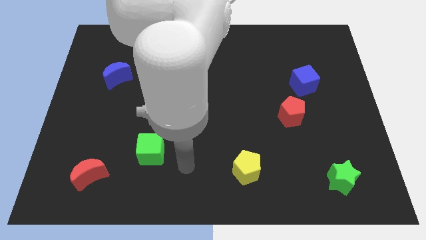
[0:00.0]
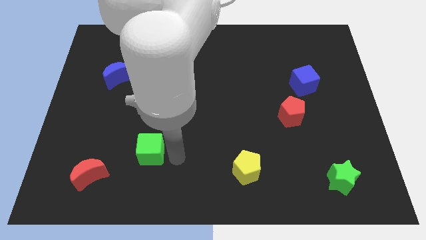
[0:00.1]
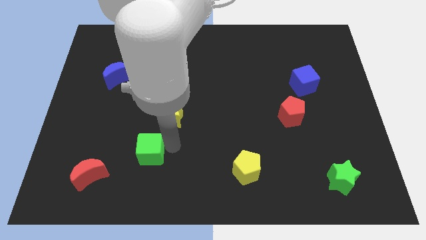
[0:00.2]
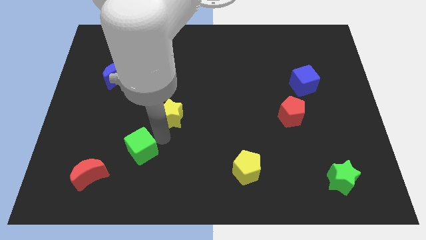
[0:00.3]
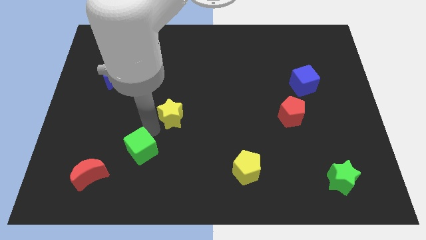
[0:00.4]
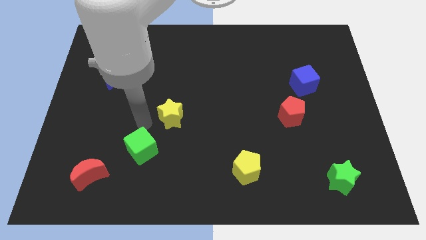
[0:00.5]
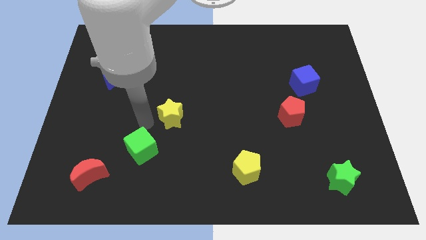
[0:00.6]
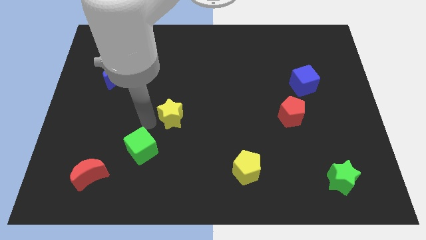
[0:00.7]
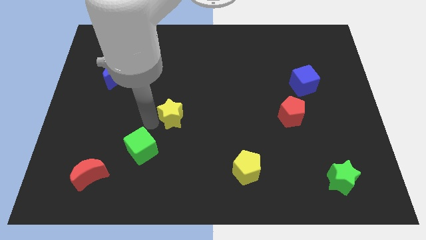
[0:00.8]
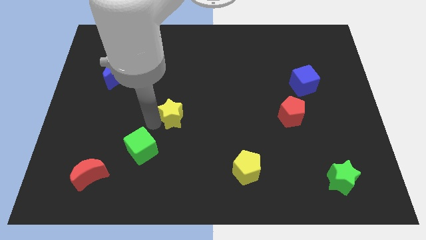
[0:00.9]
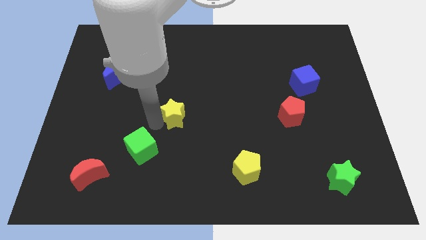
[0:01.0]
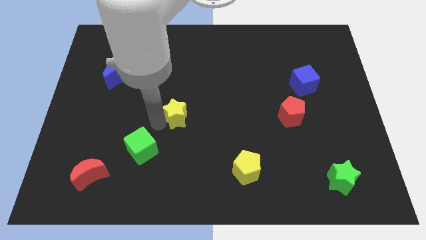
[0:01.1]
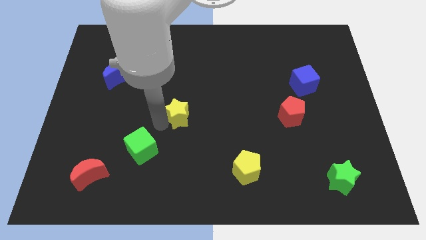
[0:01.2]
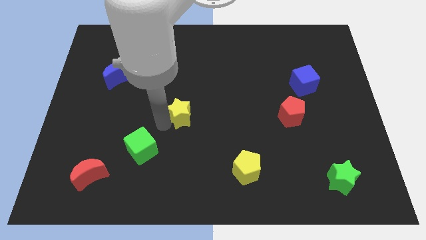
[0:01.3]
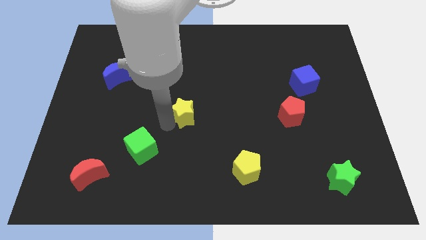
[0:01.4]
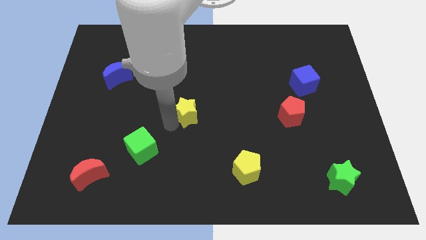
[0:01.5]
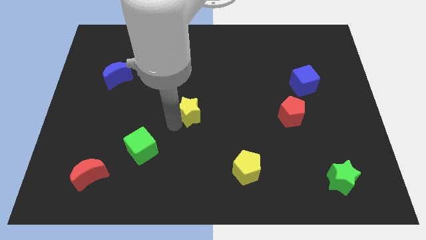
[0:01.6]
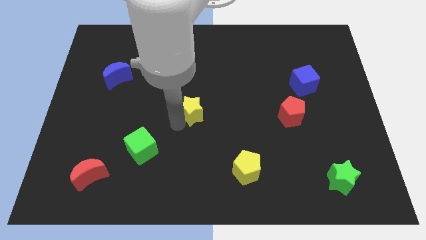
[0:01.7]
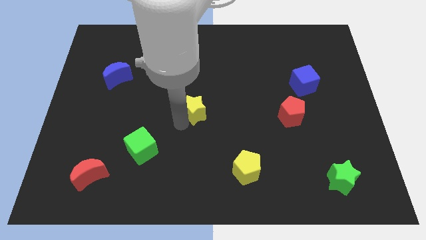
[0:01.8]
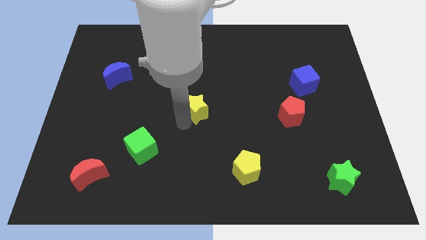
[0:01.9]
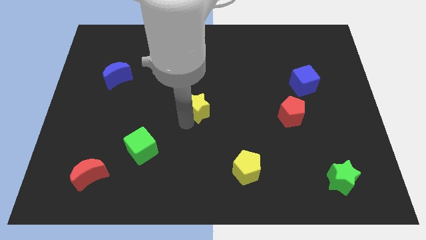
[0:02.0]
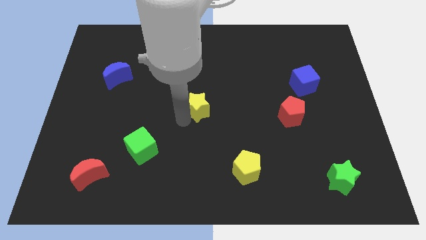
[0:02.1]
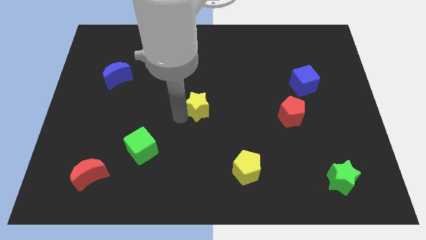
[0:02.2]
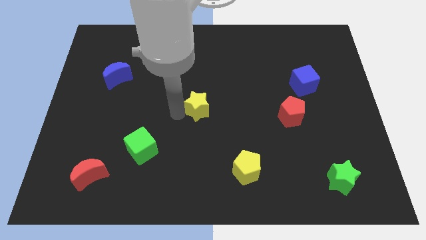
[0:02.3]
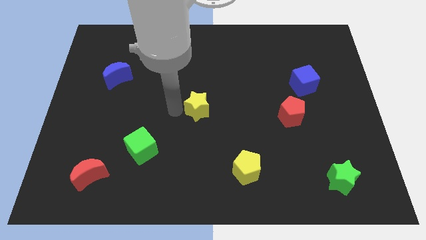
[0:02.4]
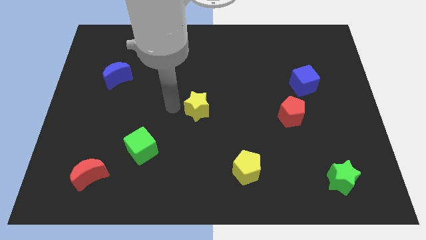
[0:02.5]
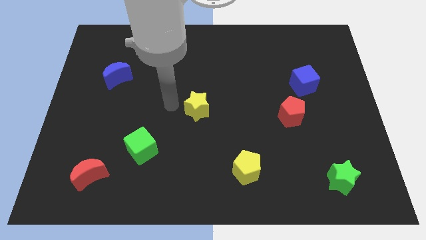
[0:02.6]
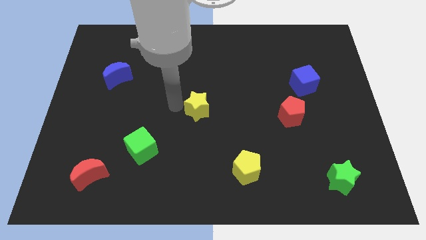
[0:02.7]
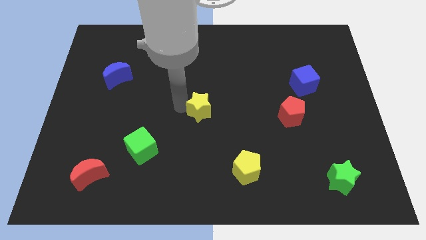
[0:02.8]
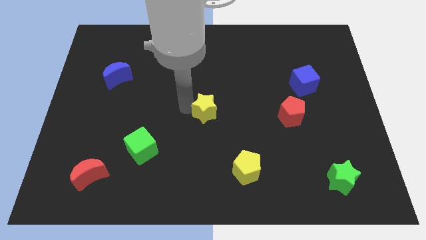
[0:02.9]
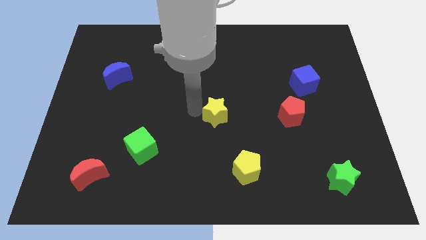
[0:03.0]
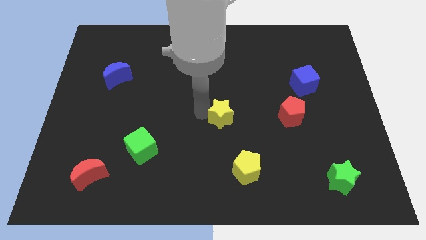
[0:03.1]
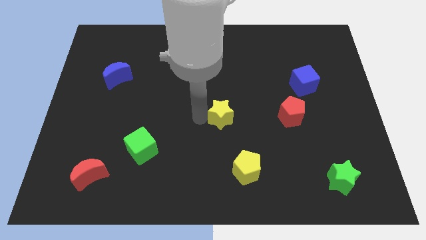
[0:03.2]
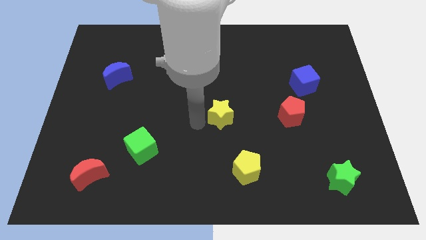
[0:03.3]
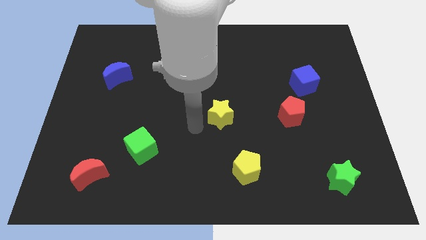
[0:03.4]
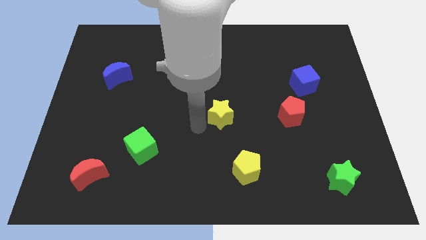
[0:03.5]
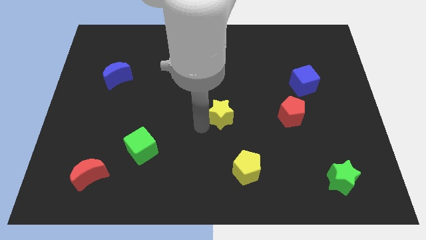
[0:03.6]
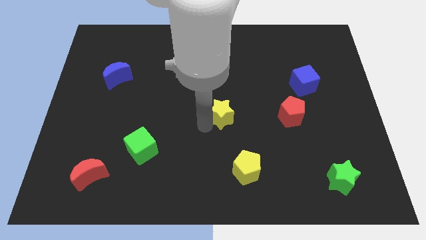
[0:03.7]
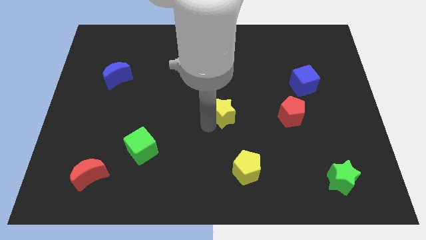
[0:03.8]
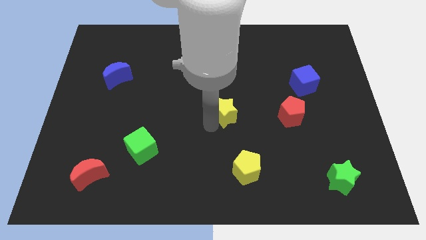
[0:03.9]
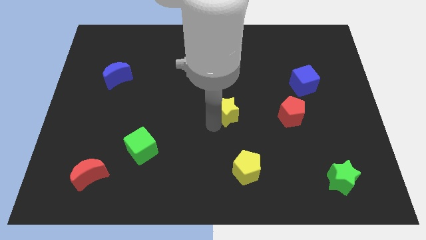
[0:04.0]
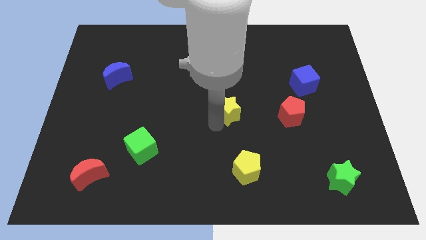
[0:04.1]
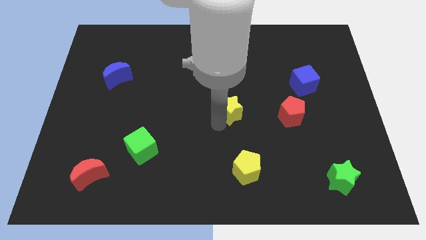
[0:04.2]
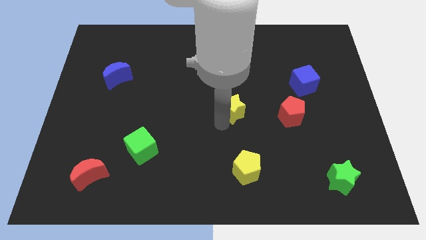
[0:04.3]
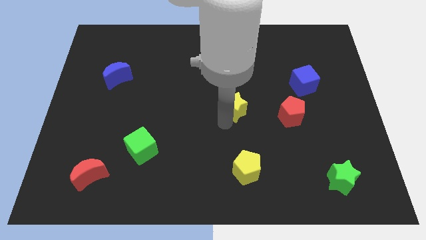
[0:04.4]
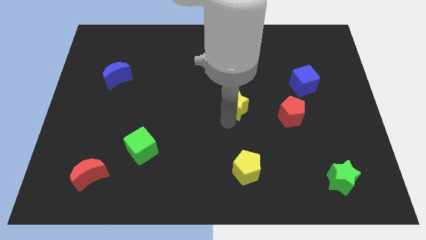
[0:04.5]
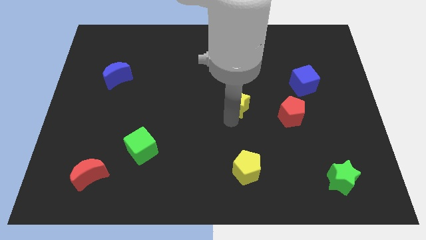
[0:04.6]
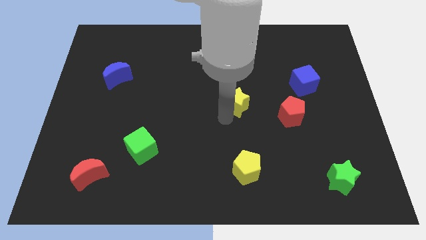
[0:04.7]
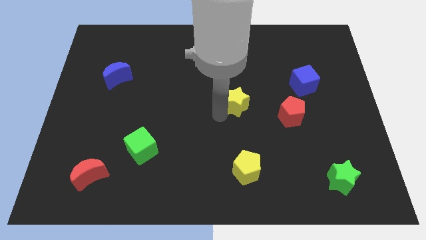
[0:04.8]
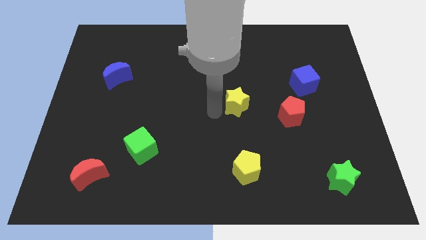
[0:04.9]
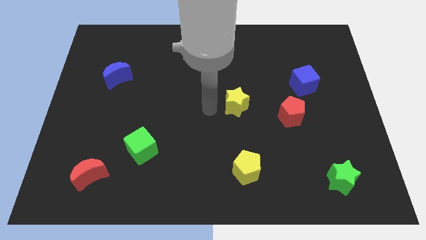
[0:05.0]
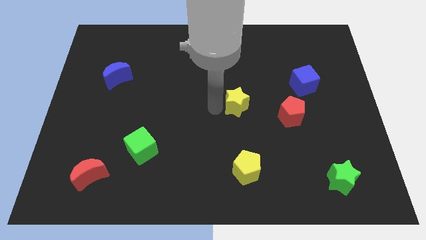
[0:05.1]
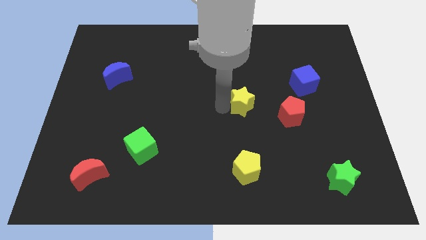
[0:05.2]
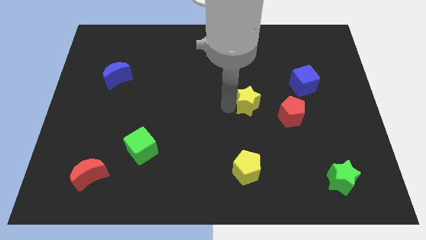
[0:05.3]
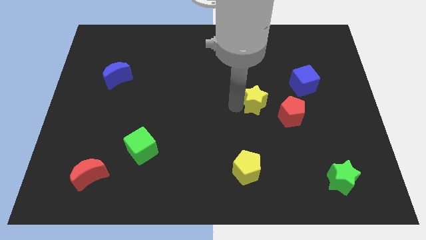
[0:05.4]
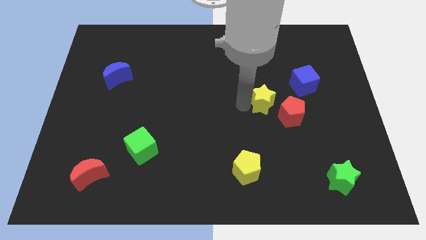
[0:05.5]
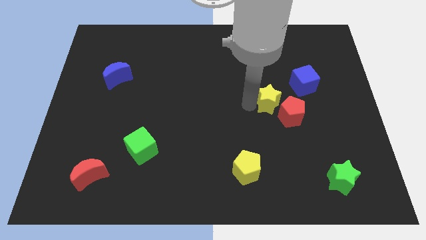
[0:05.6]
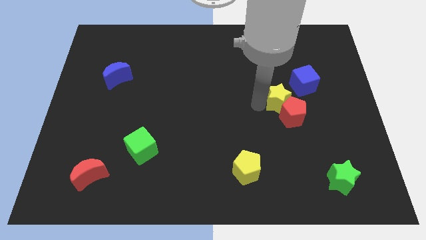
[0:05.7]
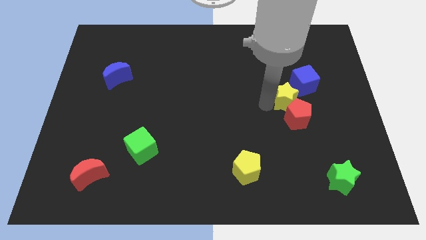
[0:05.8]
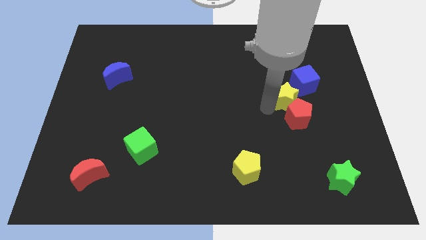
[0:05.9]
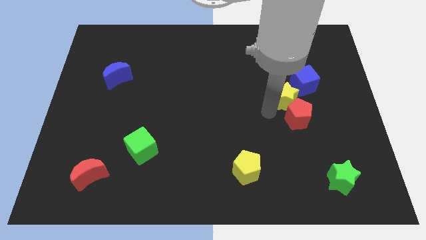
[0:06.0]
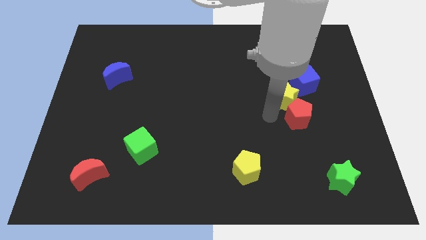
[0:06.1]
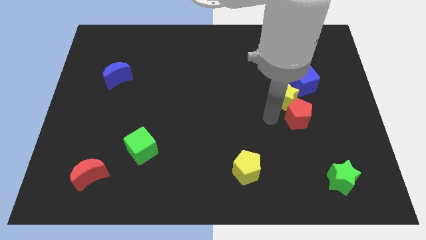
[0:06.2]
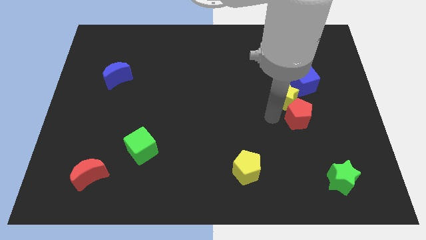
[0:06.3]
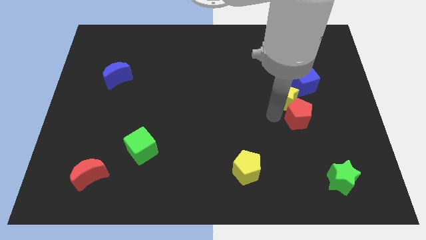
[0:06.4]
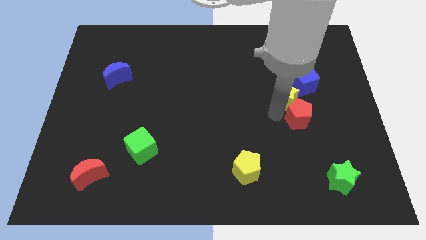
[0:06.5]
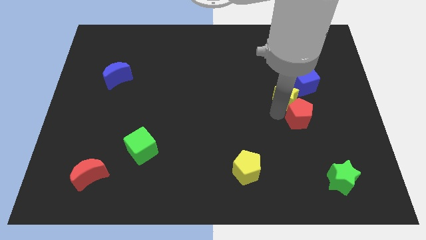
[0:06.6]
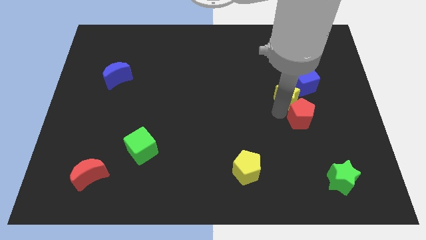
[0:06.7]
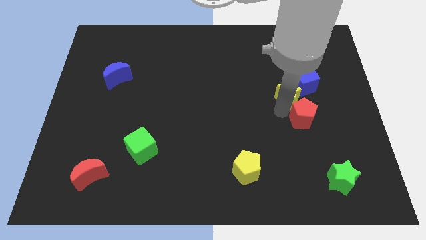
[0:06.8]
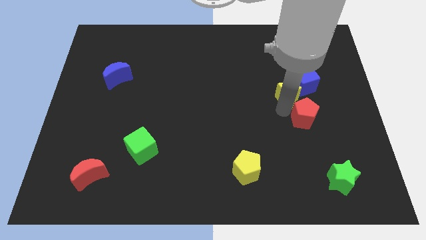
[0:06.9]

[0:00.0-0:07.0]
move the yellow star to the blue cube
